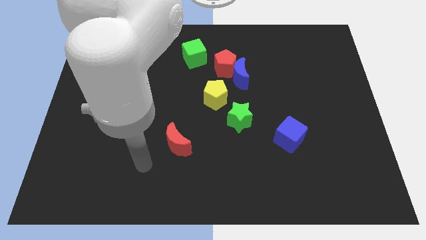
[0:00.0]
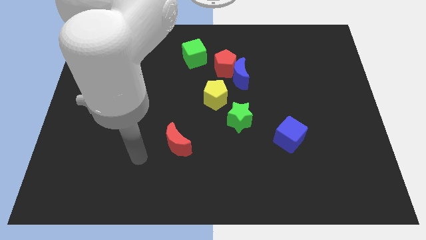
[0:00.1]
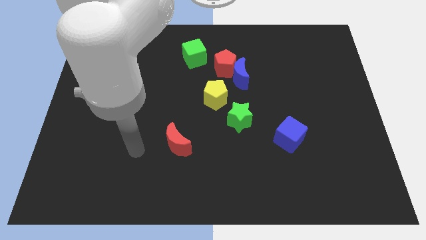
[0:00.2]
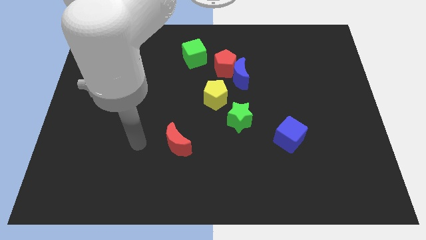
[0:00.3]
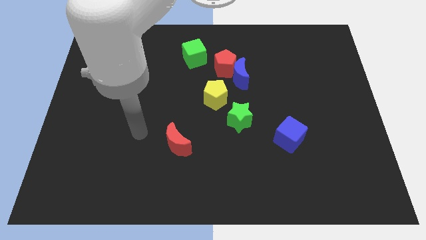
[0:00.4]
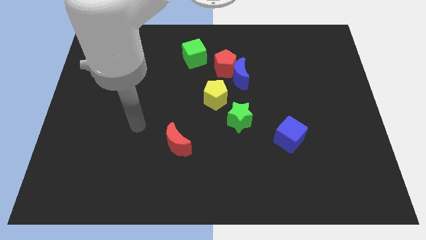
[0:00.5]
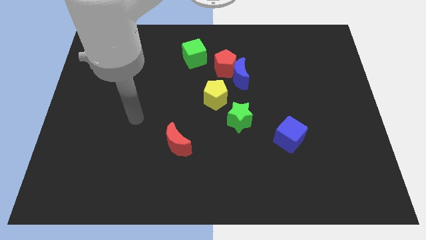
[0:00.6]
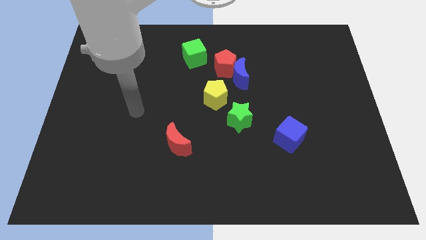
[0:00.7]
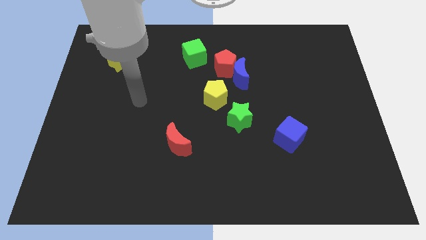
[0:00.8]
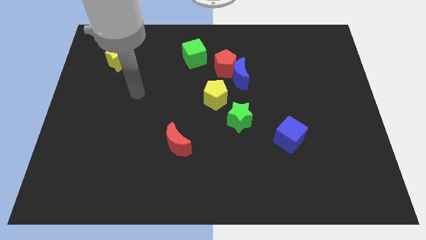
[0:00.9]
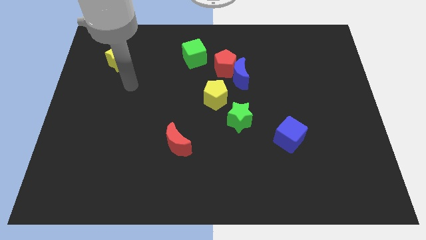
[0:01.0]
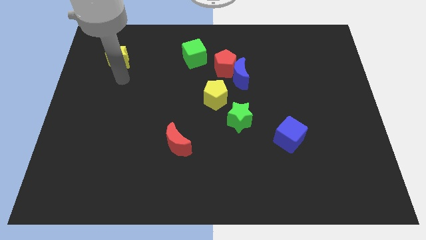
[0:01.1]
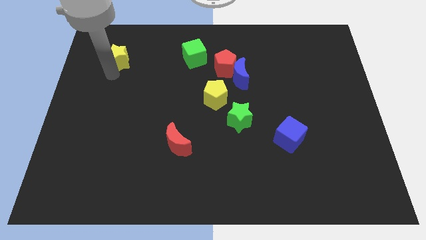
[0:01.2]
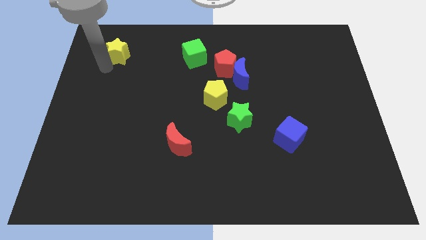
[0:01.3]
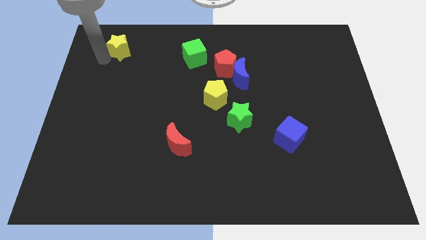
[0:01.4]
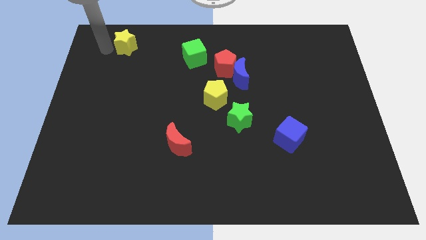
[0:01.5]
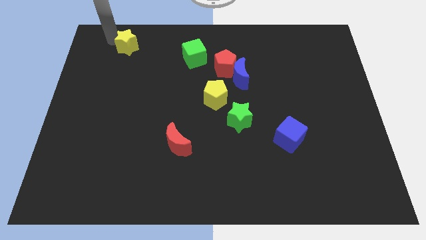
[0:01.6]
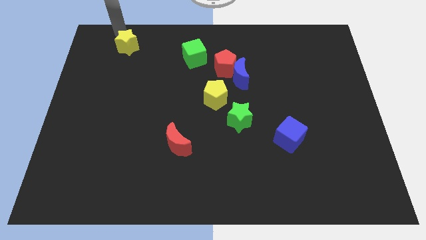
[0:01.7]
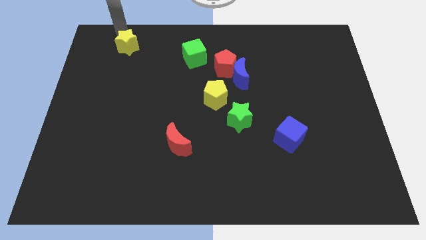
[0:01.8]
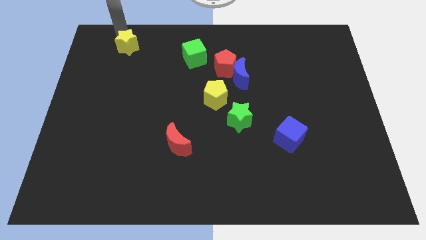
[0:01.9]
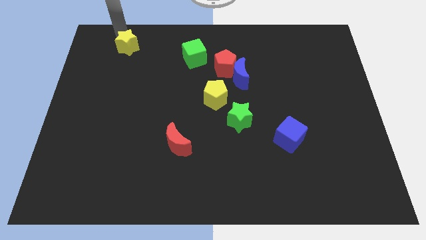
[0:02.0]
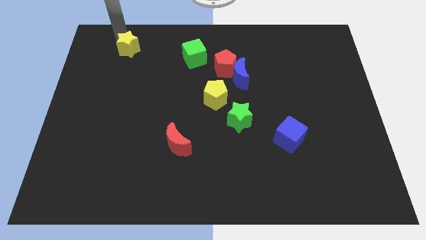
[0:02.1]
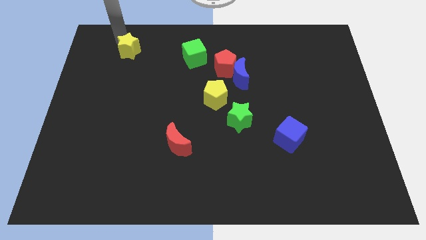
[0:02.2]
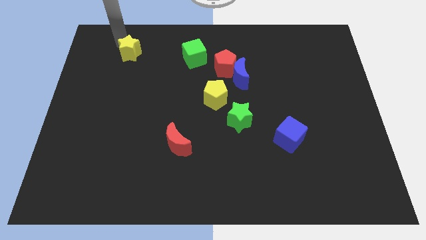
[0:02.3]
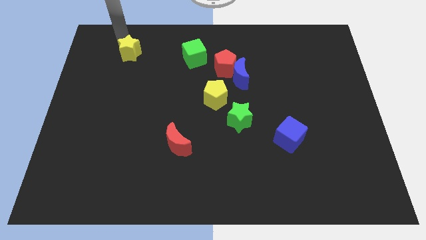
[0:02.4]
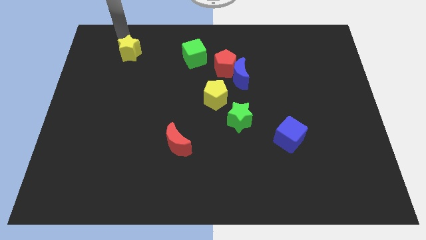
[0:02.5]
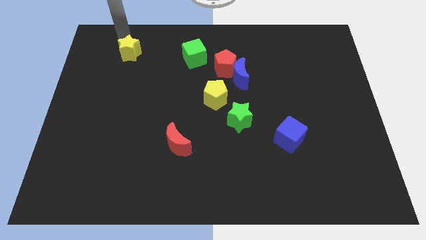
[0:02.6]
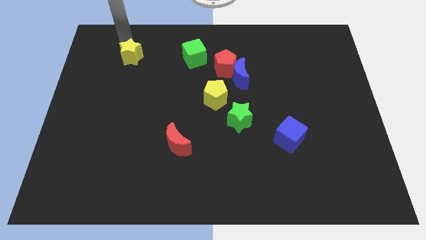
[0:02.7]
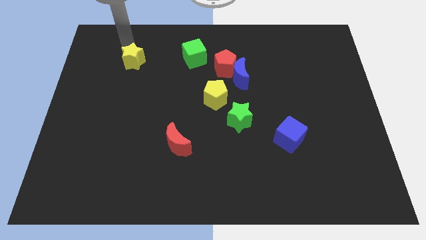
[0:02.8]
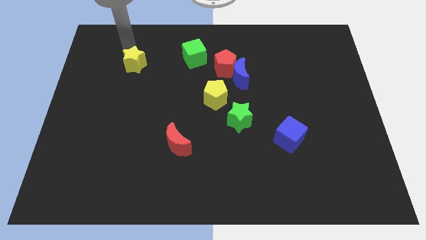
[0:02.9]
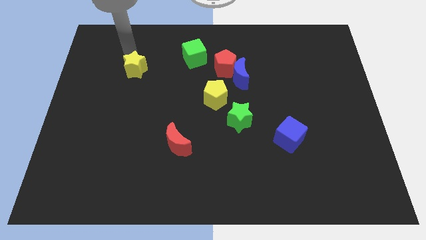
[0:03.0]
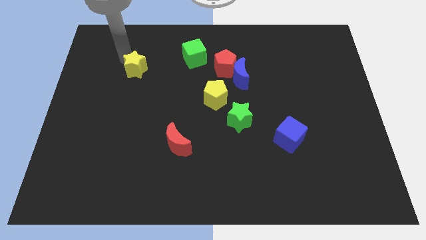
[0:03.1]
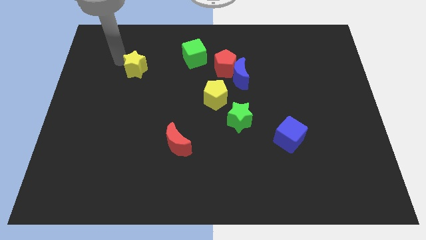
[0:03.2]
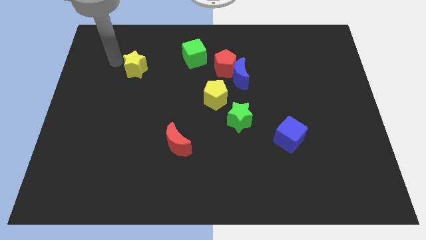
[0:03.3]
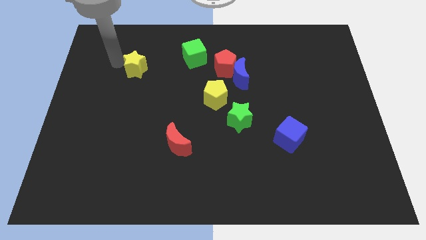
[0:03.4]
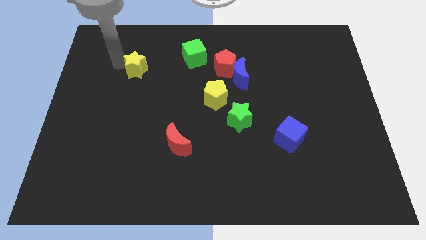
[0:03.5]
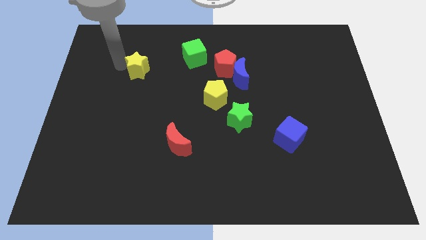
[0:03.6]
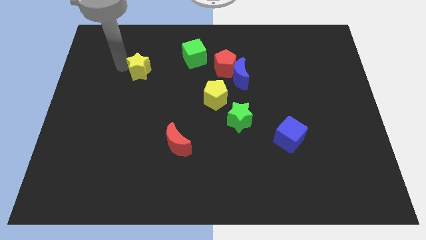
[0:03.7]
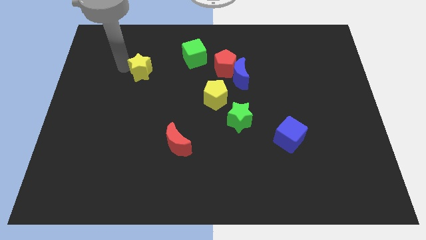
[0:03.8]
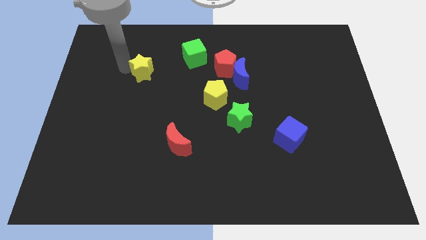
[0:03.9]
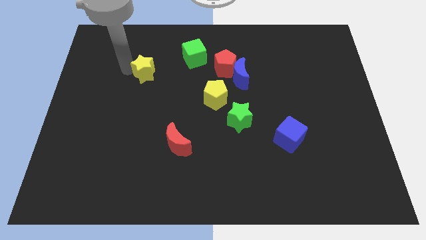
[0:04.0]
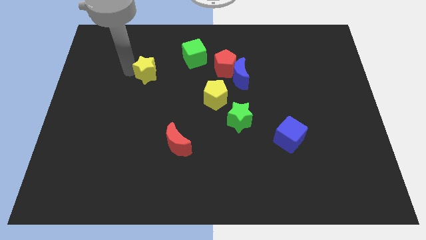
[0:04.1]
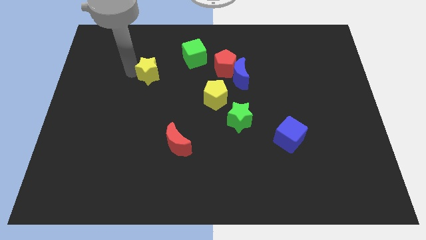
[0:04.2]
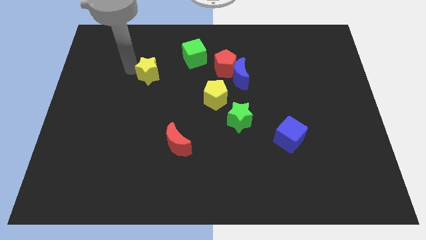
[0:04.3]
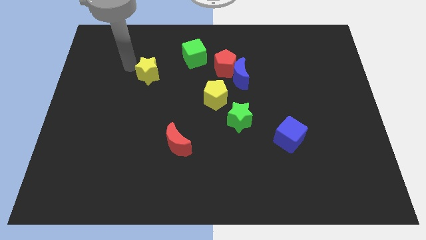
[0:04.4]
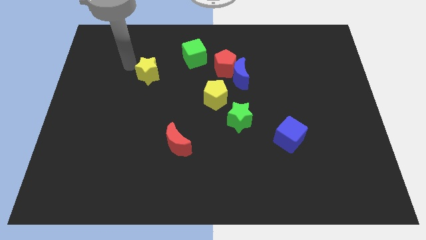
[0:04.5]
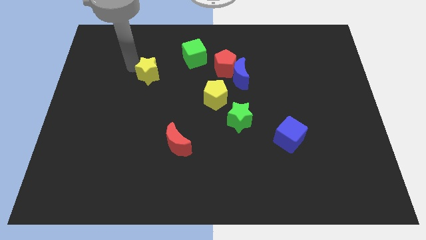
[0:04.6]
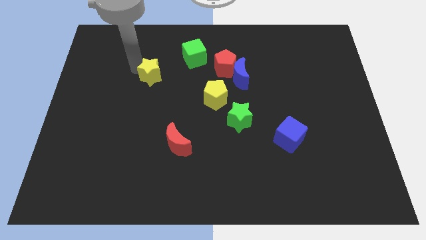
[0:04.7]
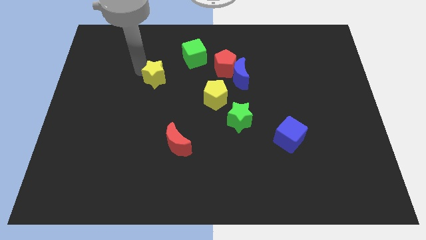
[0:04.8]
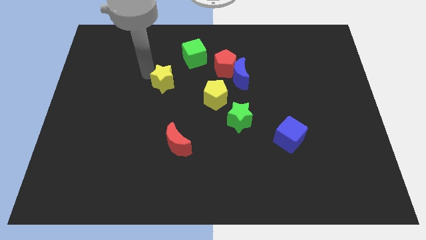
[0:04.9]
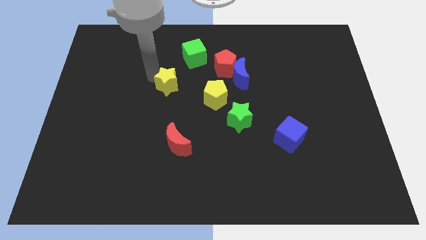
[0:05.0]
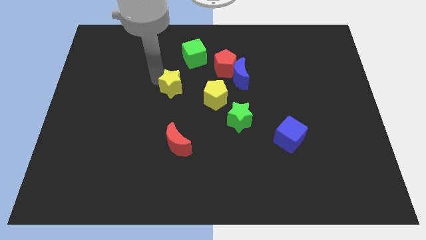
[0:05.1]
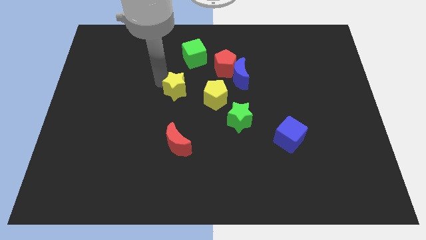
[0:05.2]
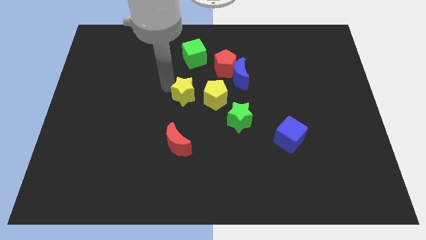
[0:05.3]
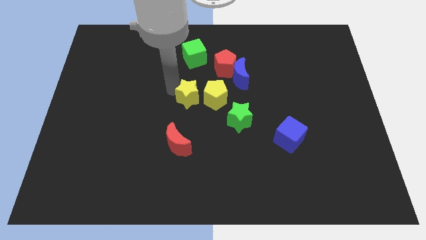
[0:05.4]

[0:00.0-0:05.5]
move the yellow star close to the yellow pentagon

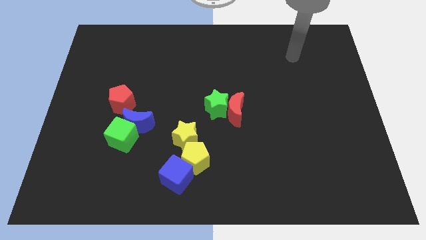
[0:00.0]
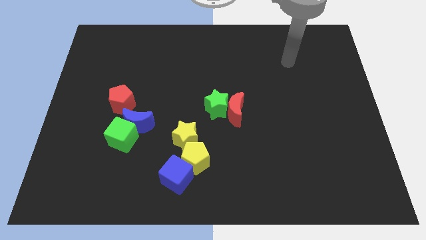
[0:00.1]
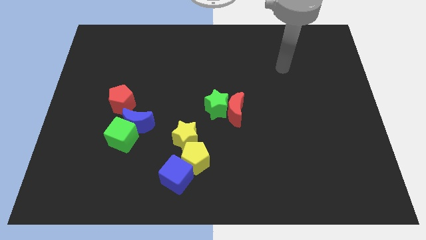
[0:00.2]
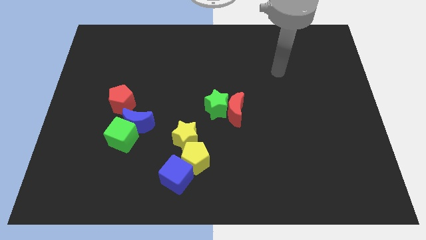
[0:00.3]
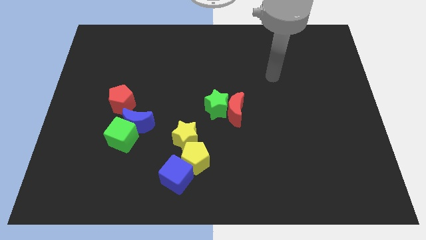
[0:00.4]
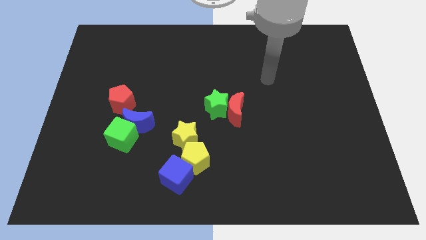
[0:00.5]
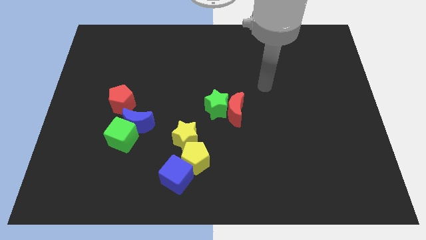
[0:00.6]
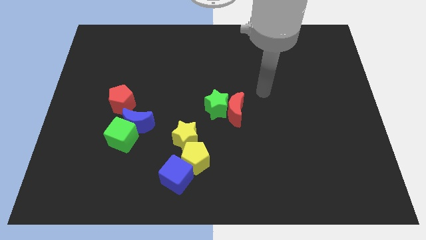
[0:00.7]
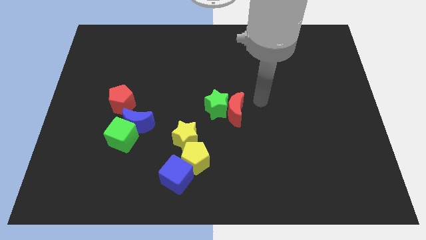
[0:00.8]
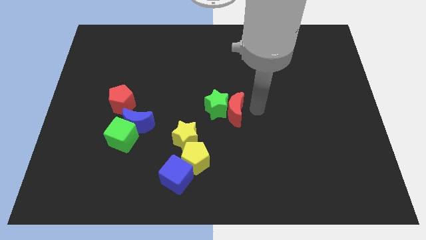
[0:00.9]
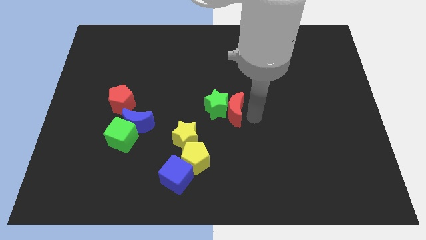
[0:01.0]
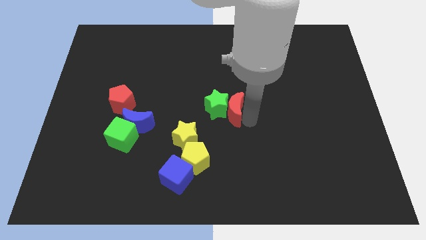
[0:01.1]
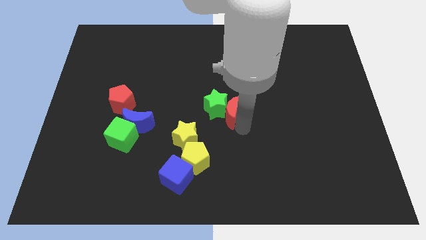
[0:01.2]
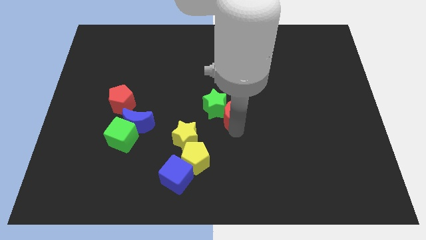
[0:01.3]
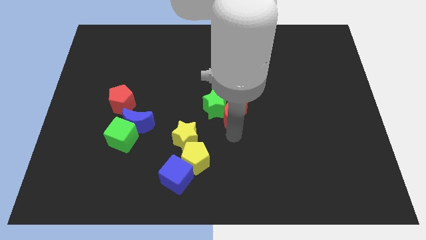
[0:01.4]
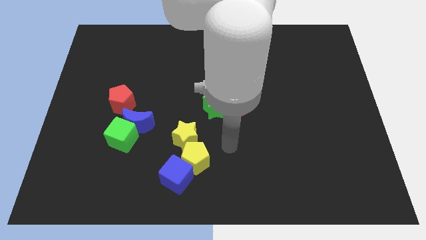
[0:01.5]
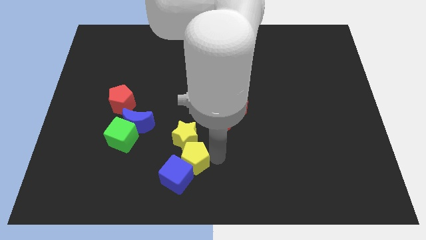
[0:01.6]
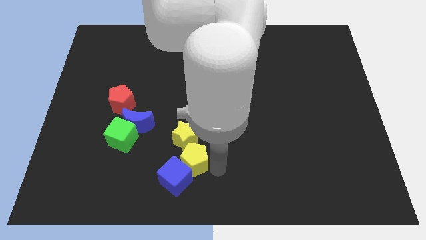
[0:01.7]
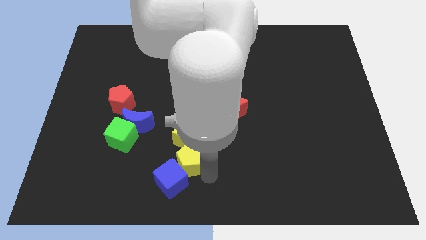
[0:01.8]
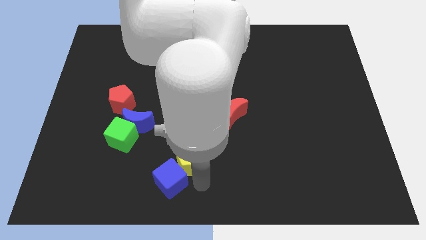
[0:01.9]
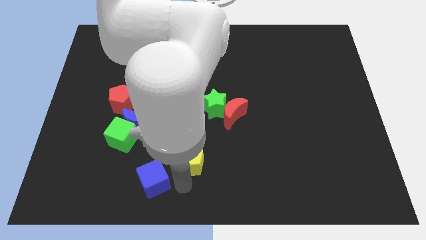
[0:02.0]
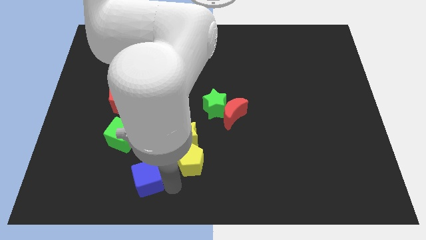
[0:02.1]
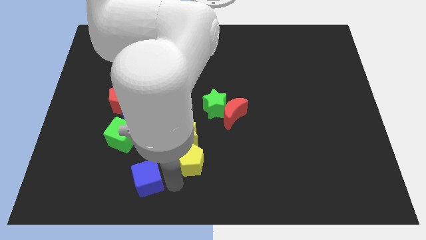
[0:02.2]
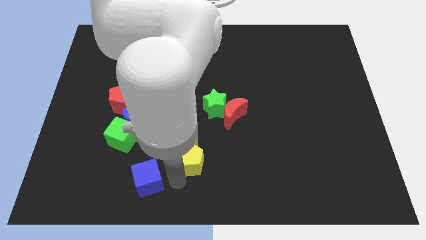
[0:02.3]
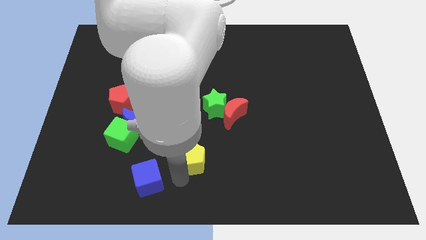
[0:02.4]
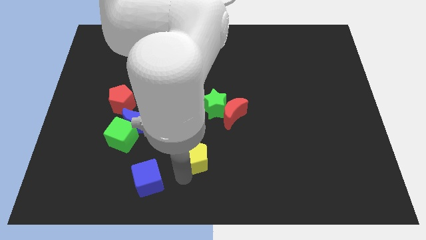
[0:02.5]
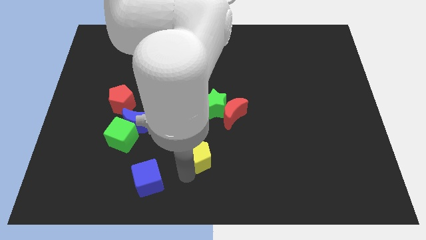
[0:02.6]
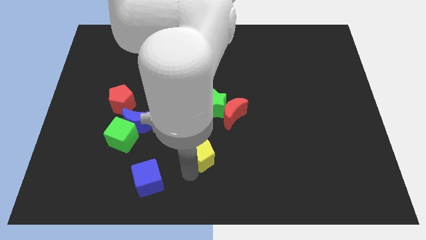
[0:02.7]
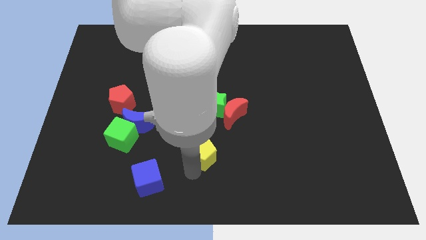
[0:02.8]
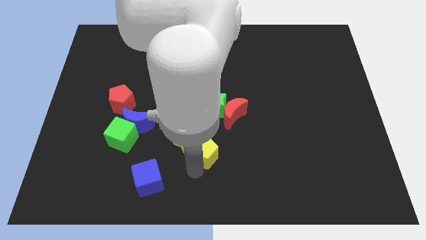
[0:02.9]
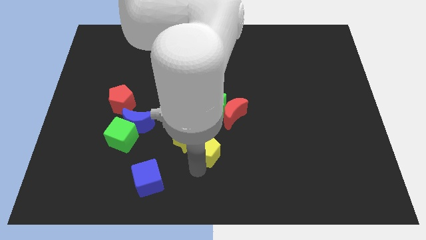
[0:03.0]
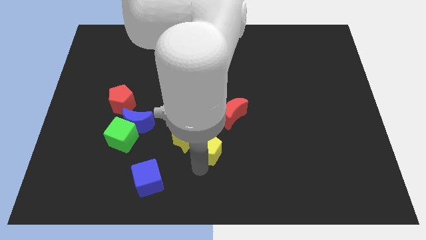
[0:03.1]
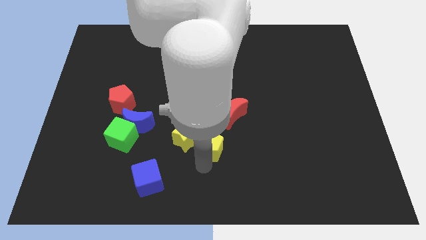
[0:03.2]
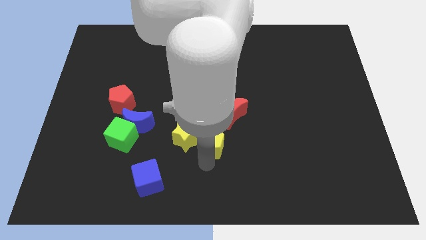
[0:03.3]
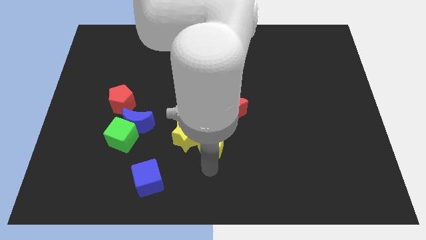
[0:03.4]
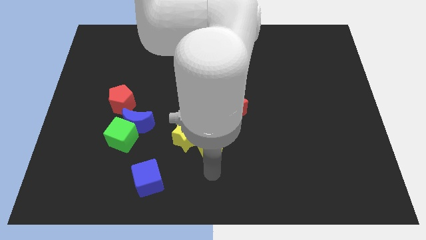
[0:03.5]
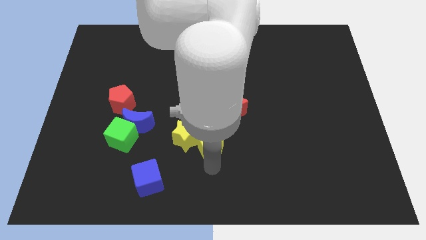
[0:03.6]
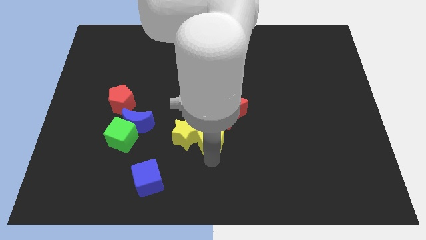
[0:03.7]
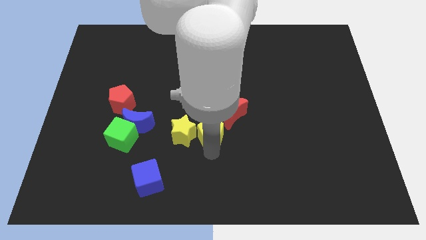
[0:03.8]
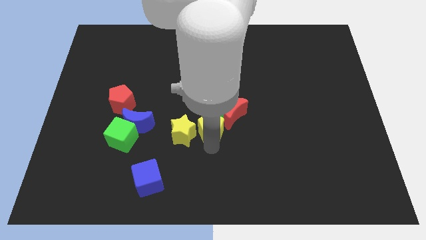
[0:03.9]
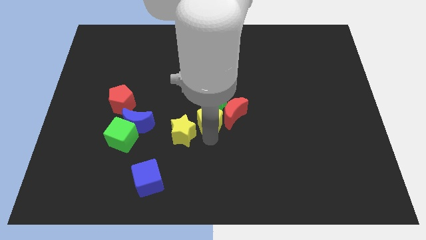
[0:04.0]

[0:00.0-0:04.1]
put the yellow pentagon close to the green star
